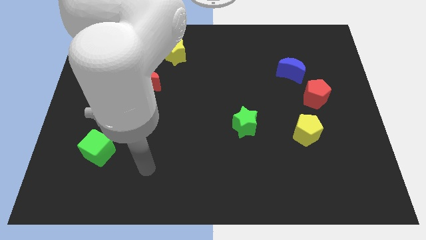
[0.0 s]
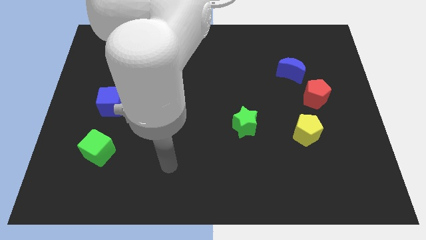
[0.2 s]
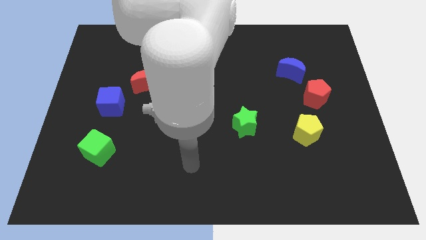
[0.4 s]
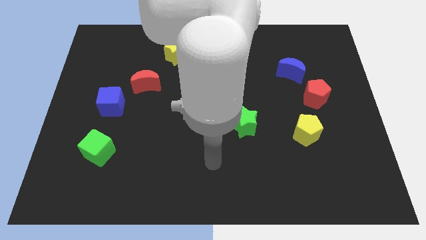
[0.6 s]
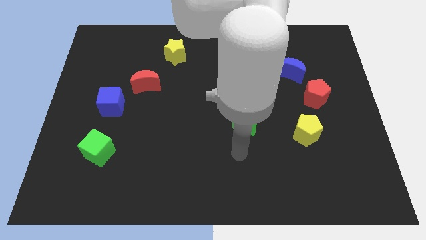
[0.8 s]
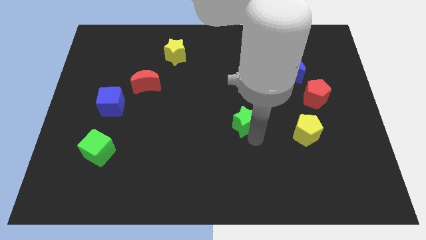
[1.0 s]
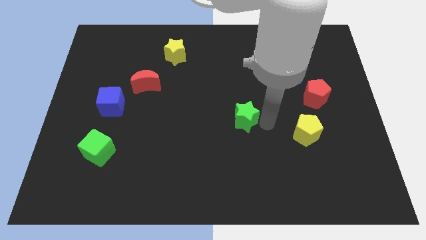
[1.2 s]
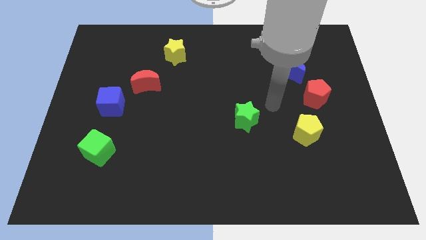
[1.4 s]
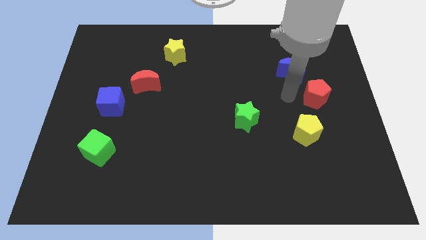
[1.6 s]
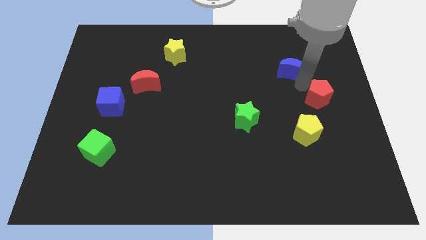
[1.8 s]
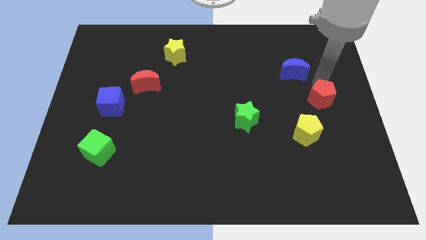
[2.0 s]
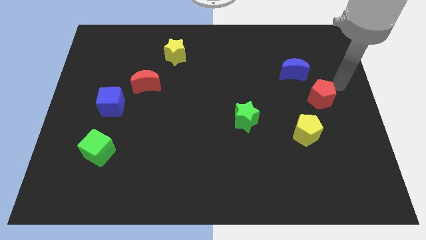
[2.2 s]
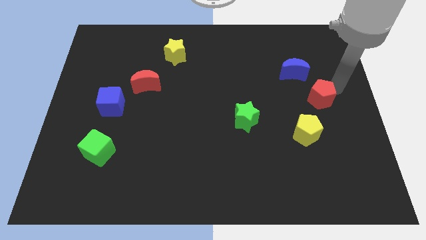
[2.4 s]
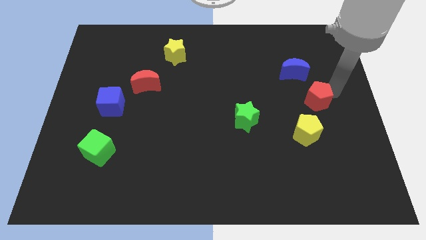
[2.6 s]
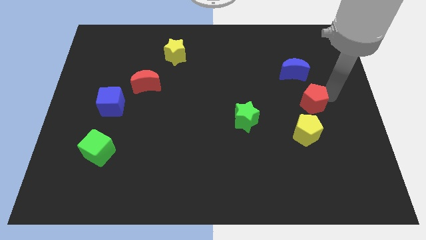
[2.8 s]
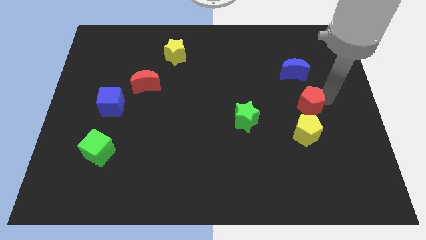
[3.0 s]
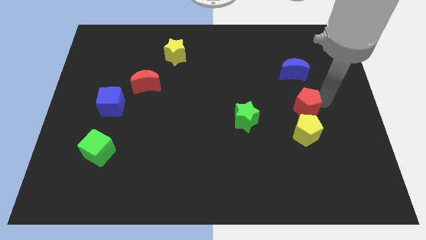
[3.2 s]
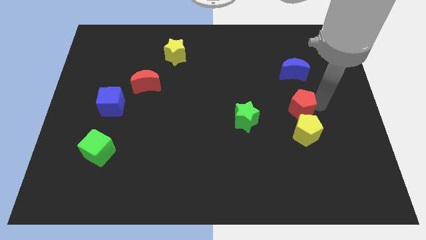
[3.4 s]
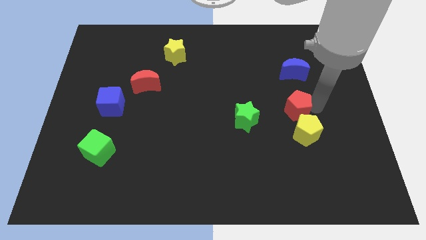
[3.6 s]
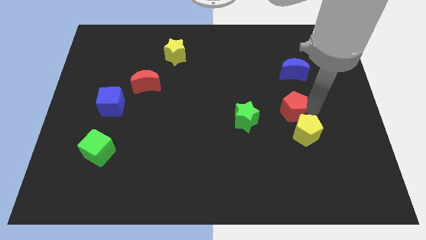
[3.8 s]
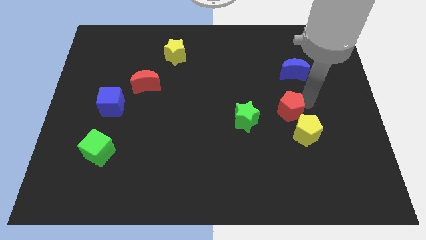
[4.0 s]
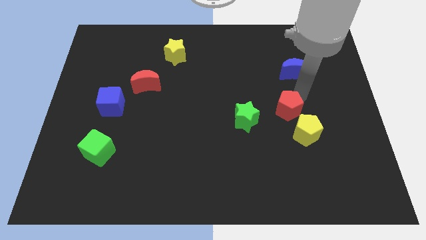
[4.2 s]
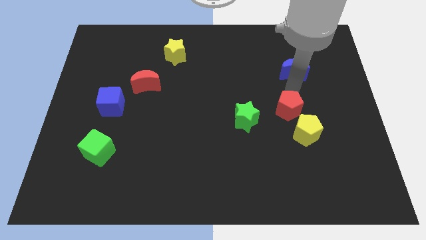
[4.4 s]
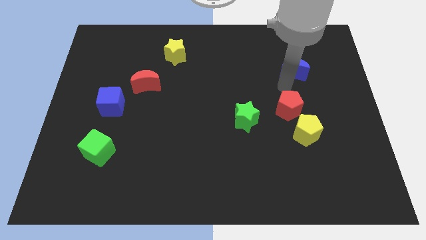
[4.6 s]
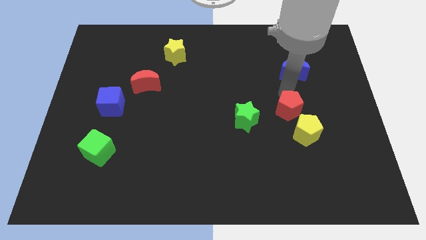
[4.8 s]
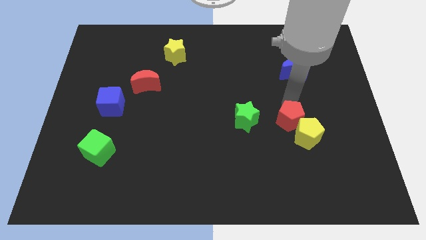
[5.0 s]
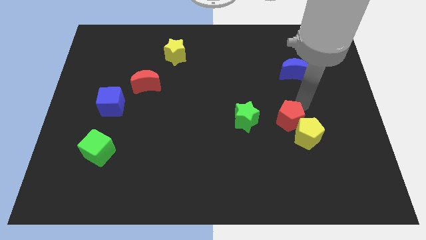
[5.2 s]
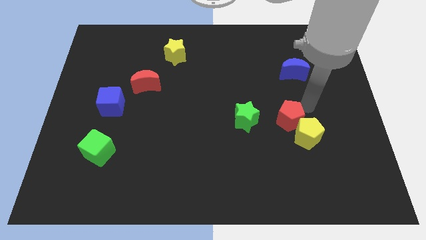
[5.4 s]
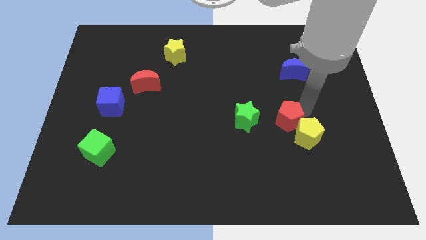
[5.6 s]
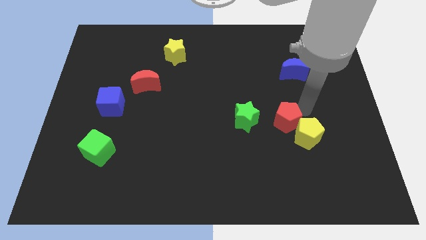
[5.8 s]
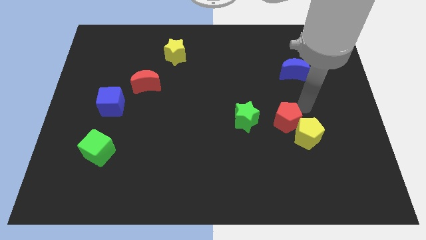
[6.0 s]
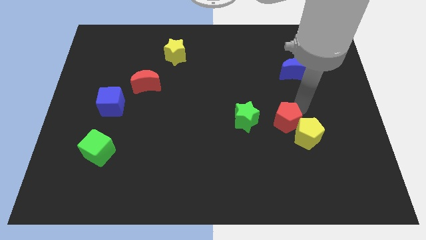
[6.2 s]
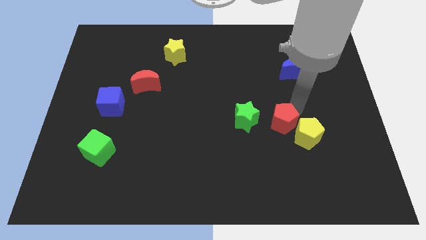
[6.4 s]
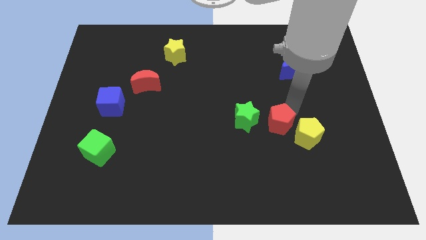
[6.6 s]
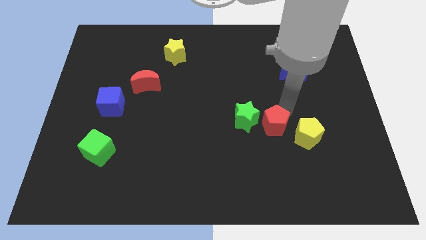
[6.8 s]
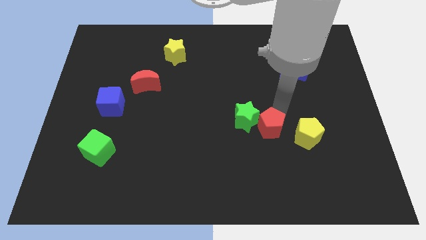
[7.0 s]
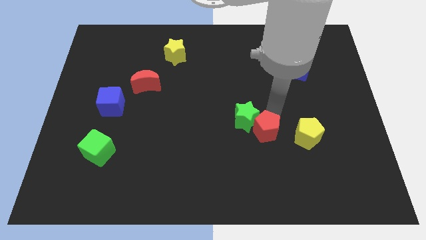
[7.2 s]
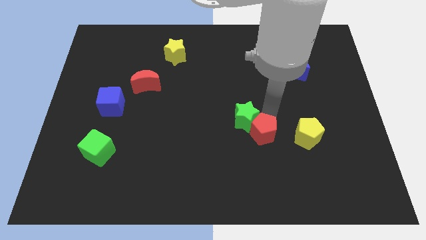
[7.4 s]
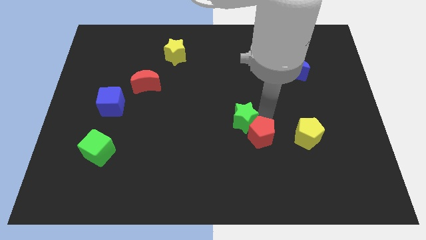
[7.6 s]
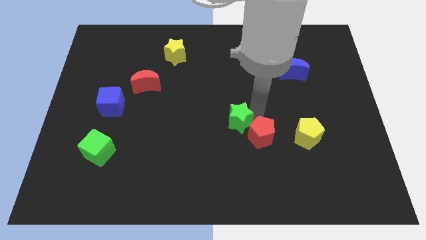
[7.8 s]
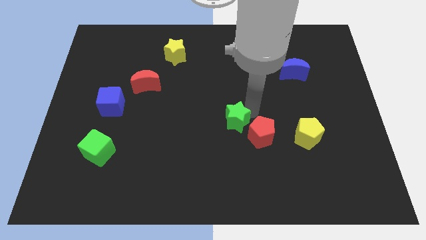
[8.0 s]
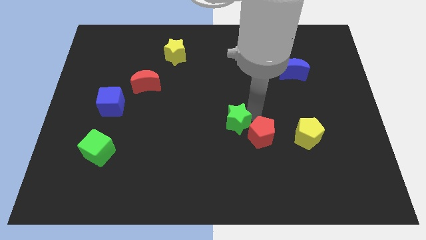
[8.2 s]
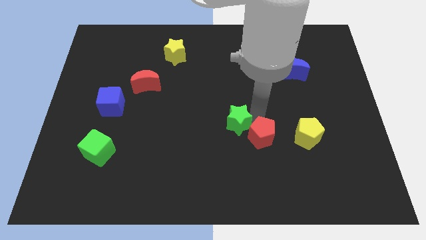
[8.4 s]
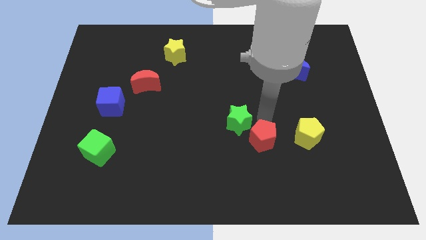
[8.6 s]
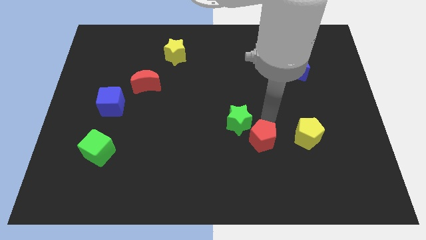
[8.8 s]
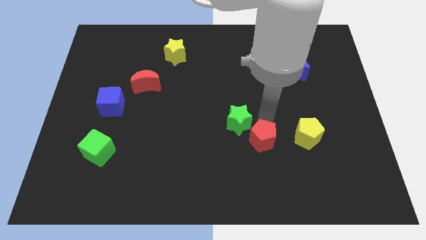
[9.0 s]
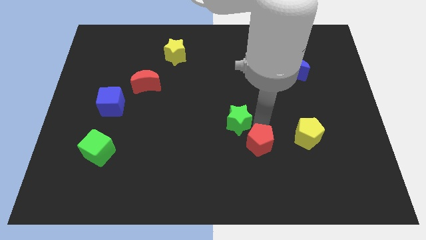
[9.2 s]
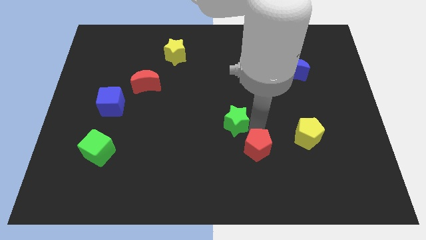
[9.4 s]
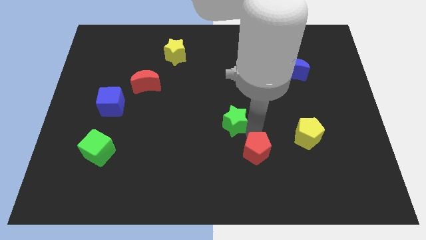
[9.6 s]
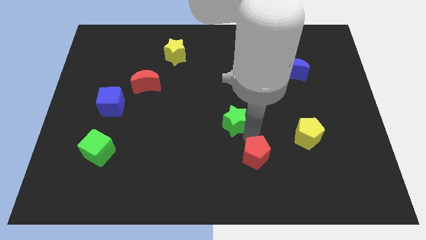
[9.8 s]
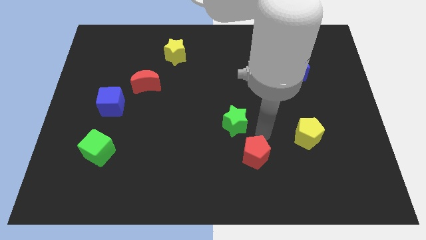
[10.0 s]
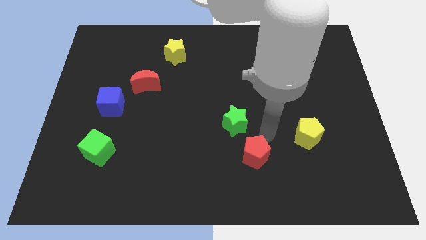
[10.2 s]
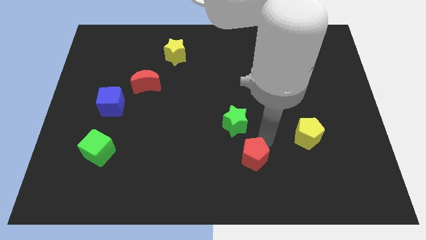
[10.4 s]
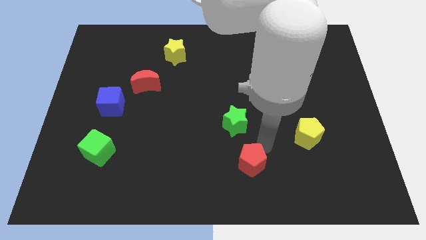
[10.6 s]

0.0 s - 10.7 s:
move the red pentagon to the bottom

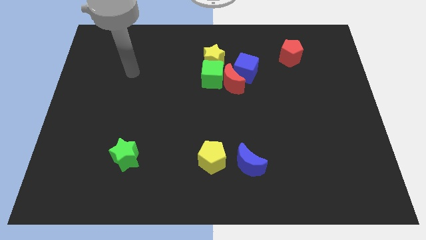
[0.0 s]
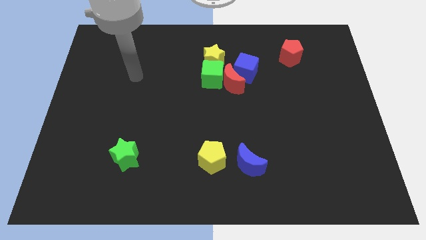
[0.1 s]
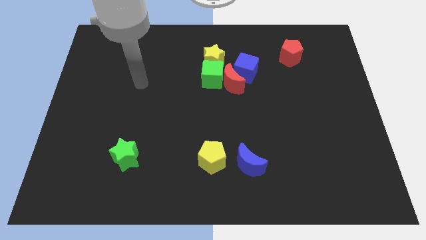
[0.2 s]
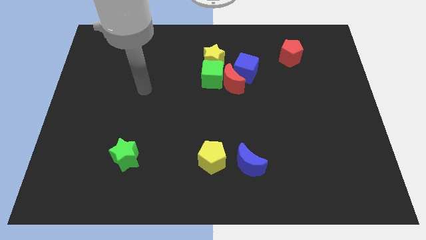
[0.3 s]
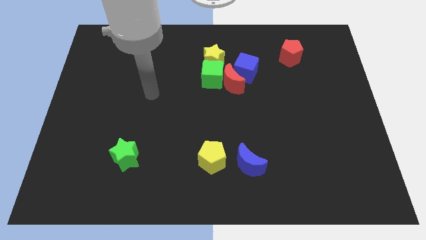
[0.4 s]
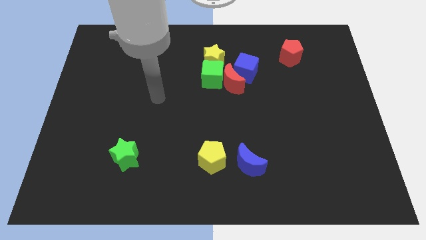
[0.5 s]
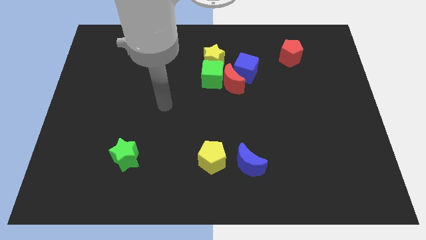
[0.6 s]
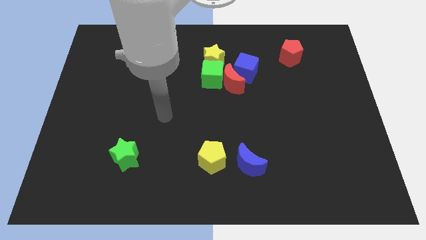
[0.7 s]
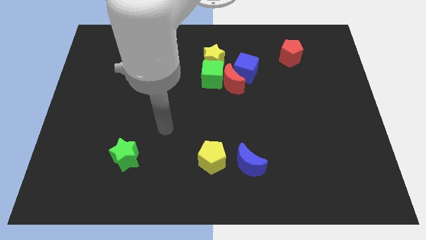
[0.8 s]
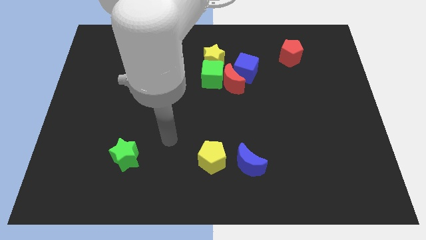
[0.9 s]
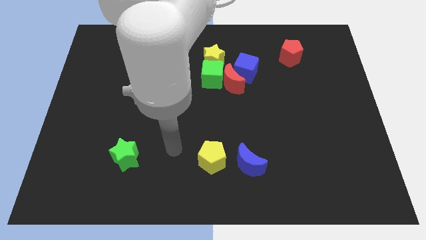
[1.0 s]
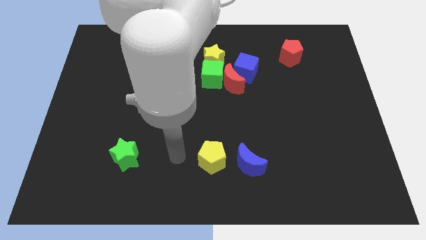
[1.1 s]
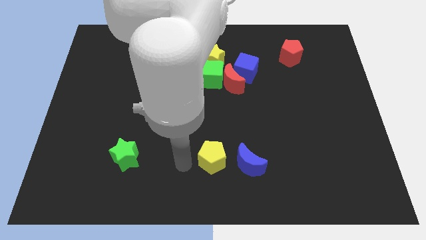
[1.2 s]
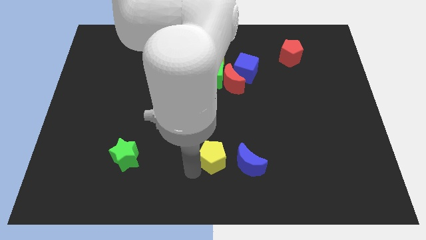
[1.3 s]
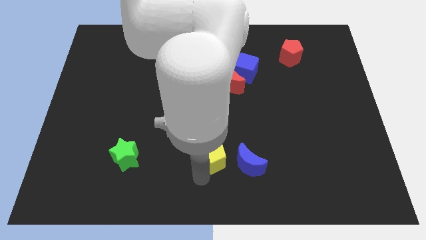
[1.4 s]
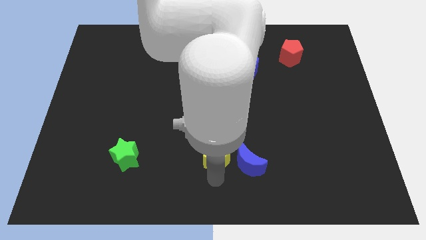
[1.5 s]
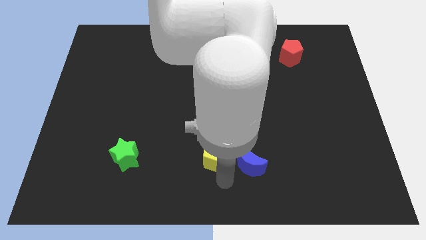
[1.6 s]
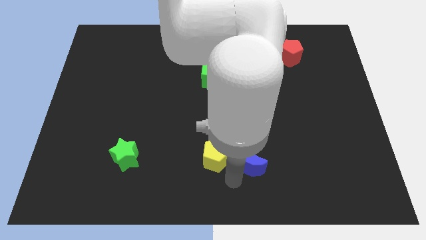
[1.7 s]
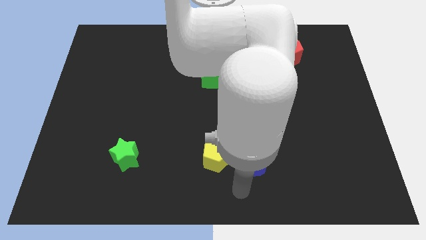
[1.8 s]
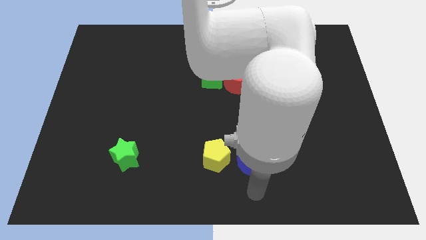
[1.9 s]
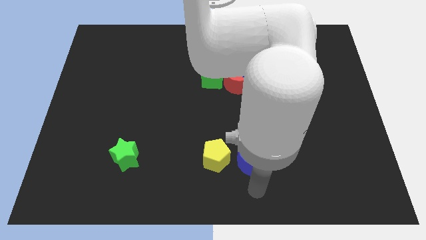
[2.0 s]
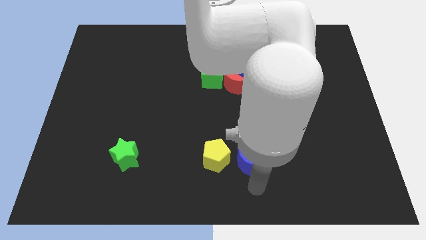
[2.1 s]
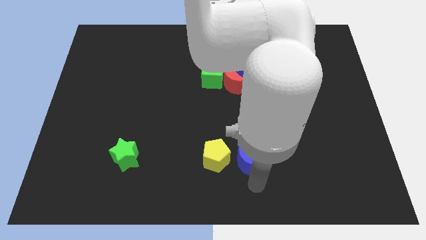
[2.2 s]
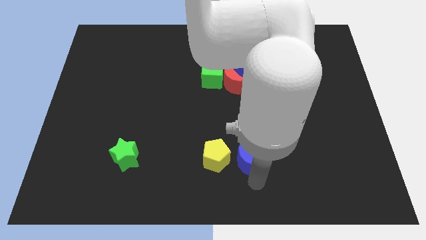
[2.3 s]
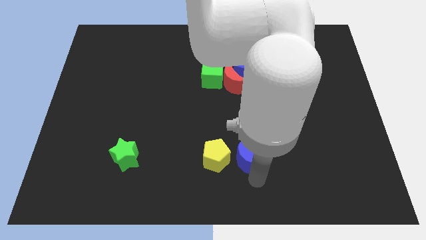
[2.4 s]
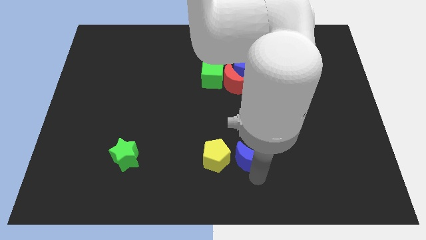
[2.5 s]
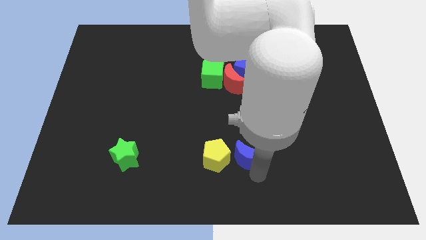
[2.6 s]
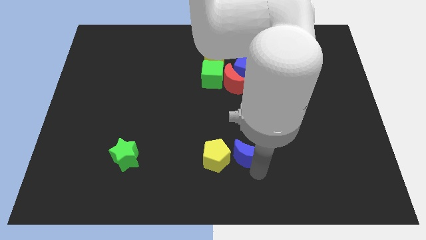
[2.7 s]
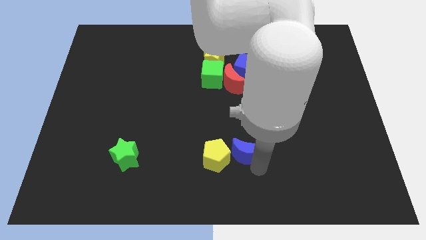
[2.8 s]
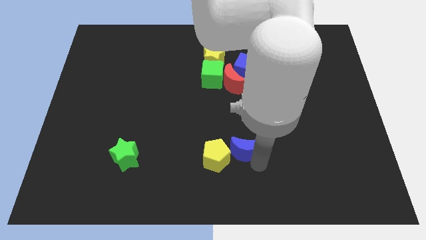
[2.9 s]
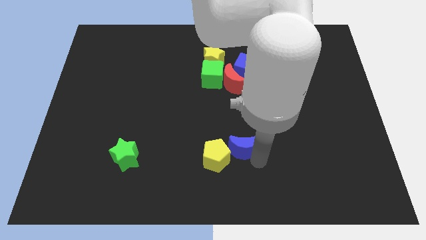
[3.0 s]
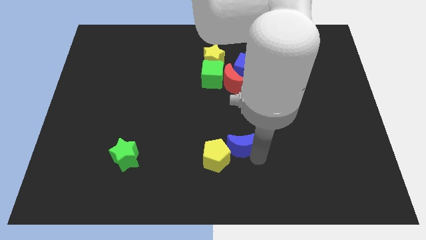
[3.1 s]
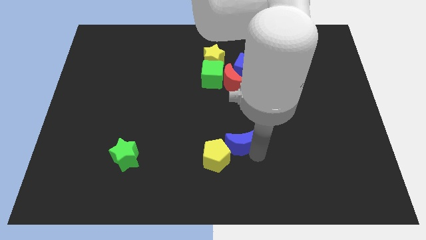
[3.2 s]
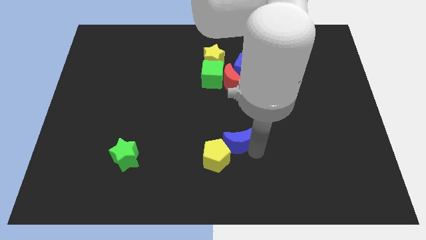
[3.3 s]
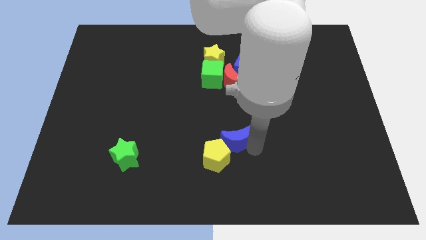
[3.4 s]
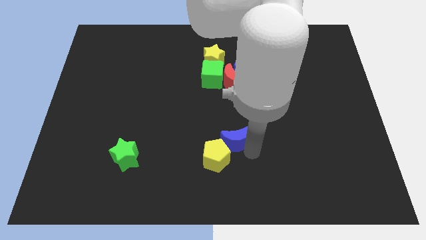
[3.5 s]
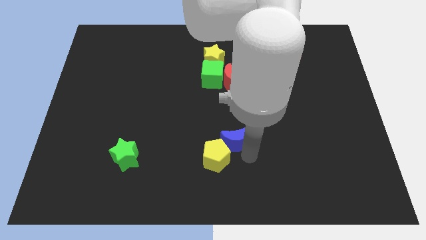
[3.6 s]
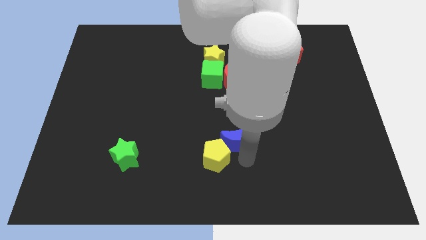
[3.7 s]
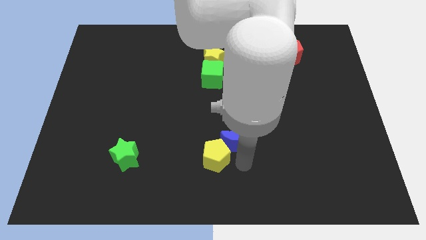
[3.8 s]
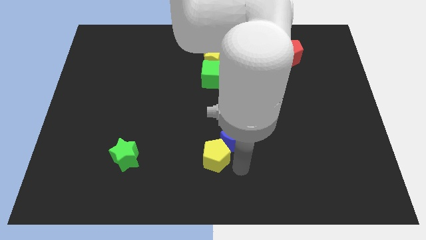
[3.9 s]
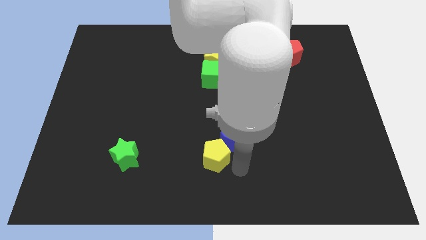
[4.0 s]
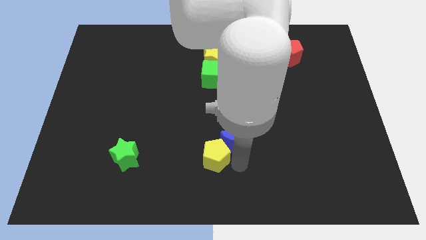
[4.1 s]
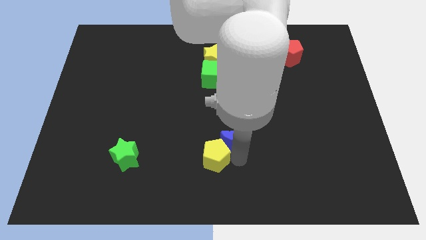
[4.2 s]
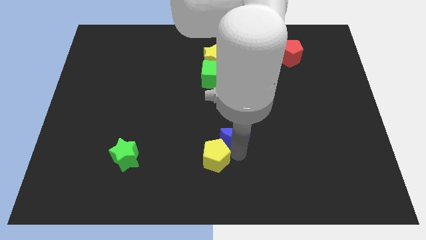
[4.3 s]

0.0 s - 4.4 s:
push the blue moon to the middle
